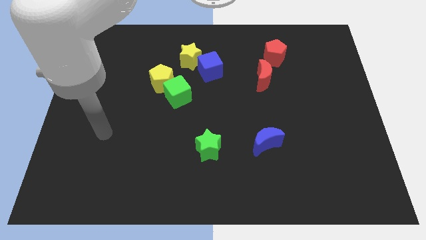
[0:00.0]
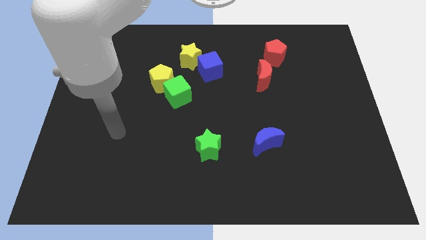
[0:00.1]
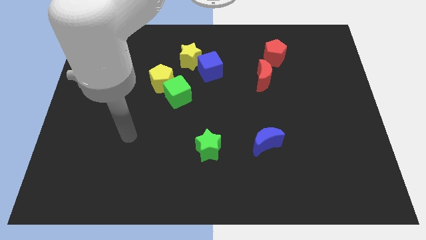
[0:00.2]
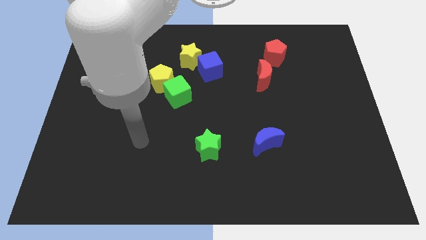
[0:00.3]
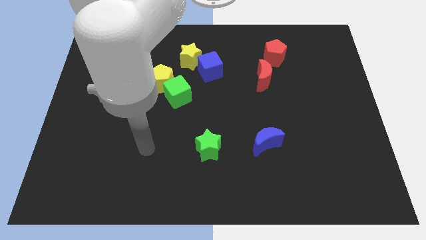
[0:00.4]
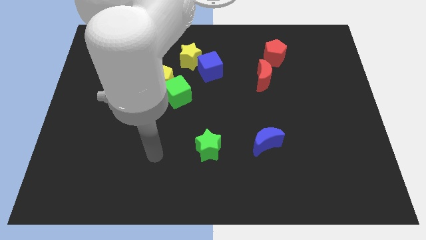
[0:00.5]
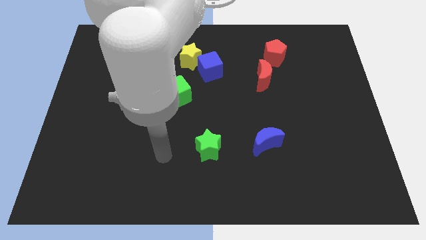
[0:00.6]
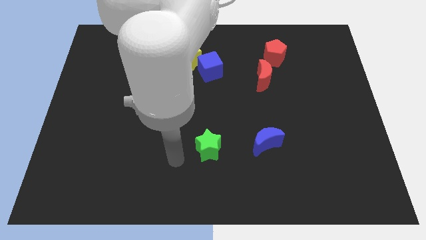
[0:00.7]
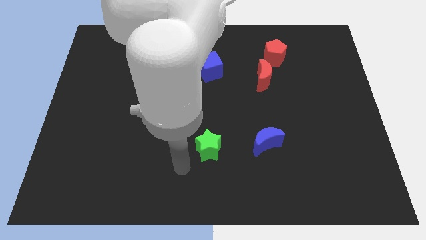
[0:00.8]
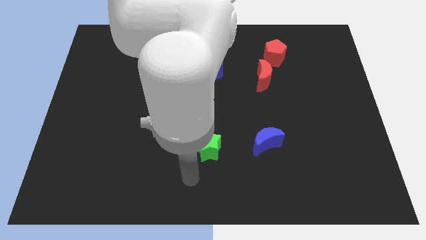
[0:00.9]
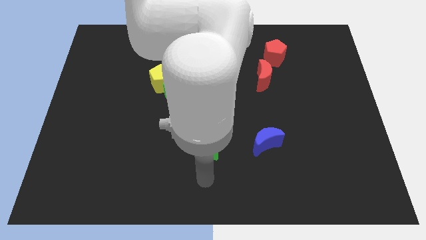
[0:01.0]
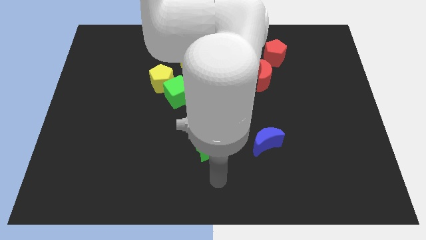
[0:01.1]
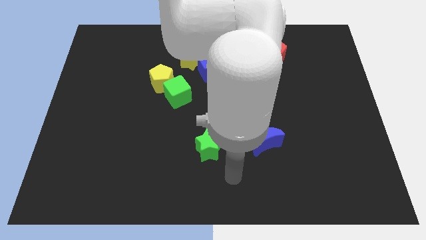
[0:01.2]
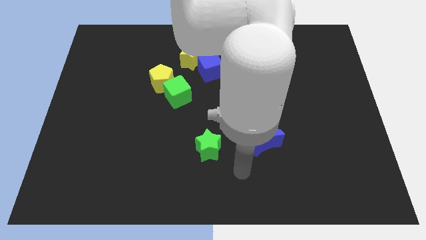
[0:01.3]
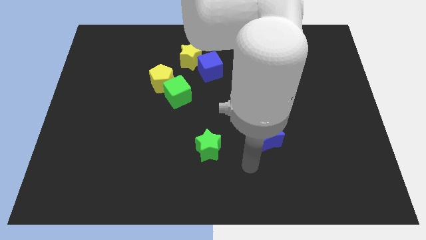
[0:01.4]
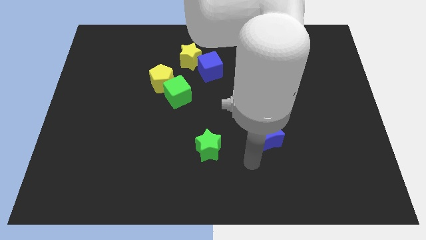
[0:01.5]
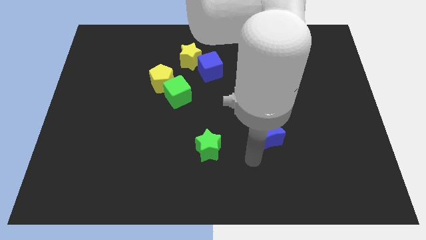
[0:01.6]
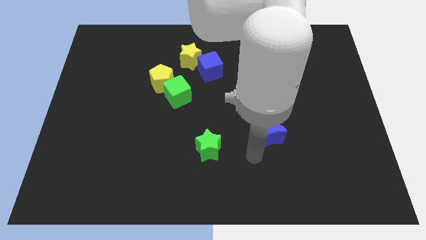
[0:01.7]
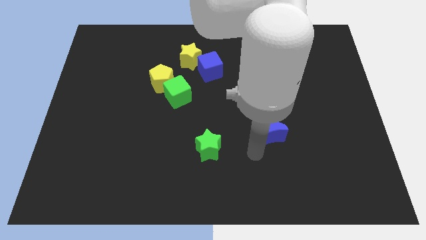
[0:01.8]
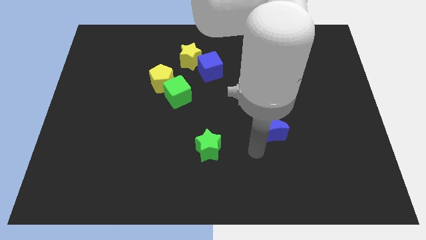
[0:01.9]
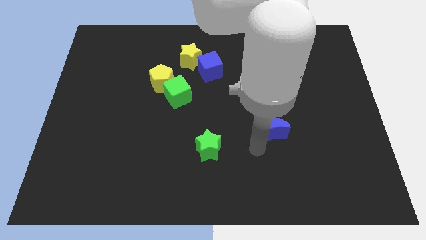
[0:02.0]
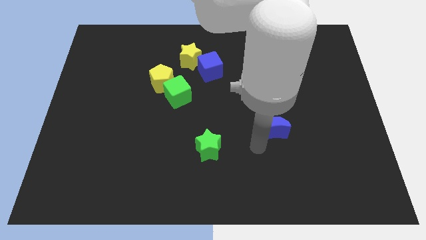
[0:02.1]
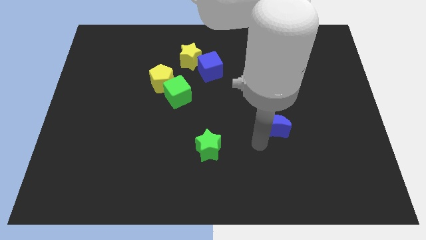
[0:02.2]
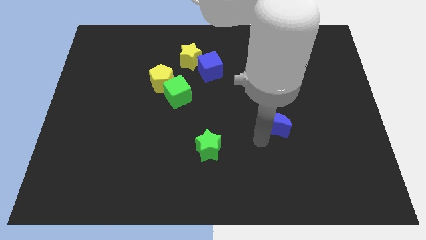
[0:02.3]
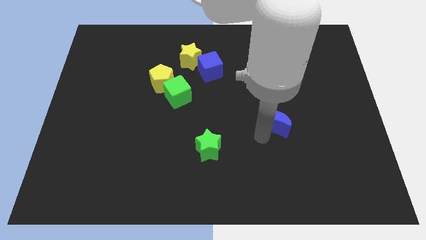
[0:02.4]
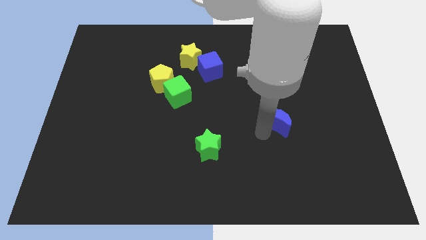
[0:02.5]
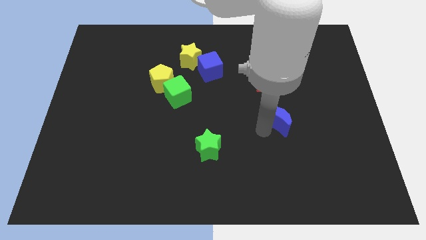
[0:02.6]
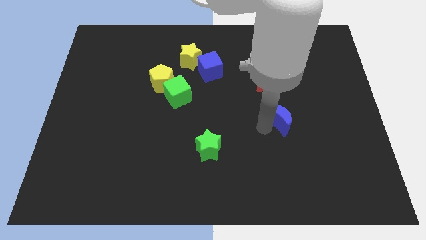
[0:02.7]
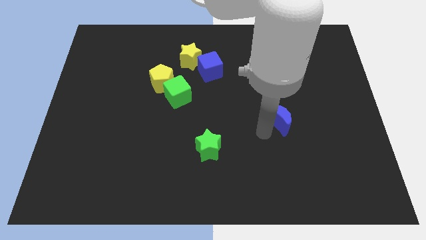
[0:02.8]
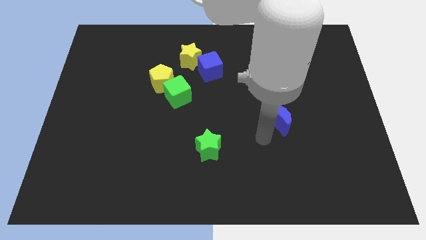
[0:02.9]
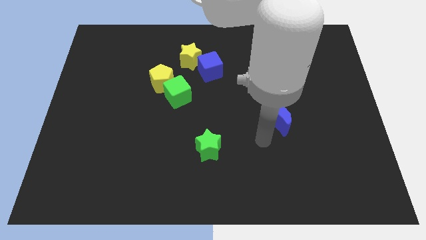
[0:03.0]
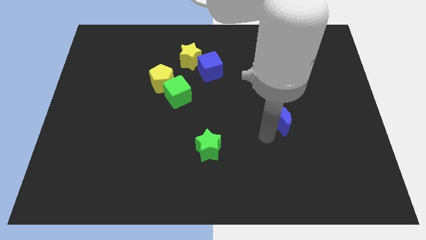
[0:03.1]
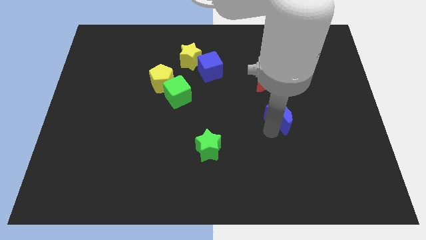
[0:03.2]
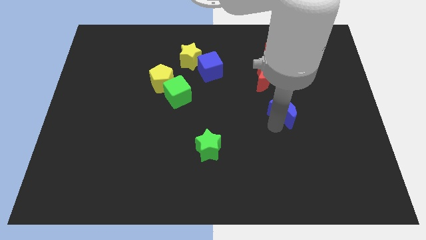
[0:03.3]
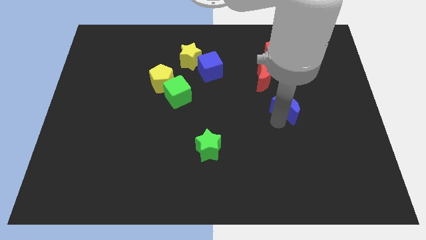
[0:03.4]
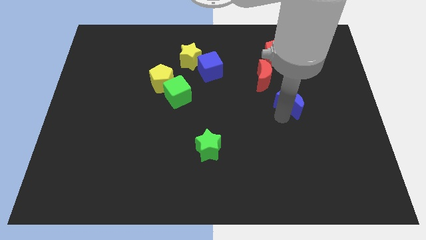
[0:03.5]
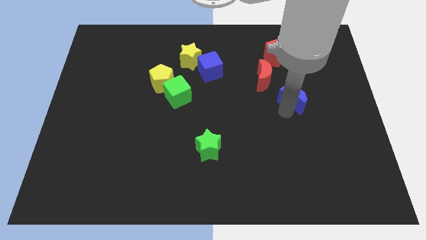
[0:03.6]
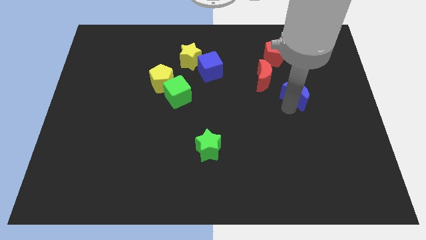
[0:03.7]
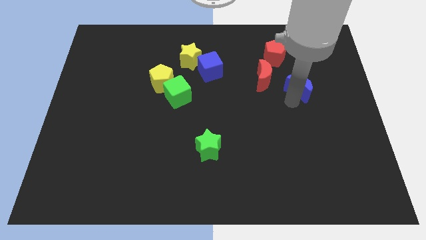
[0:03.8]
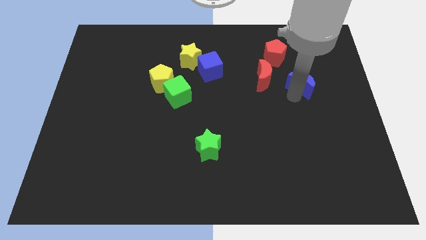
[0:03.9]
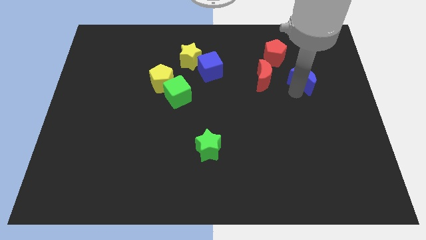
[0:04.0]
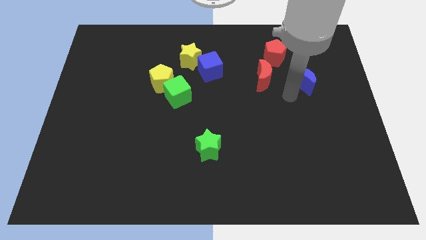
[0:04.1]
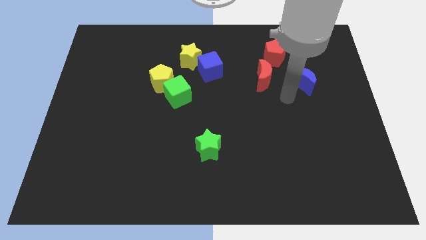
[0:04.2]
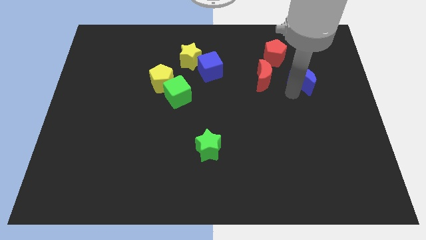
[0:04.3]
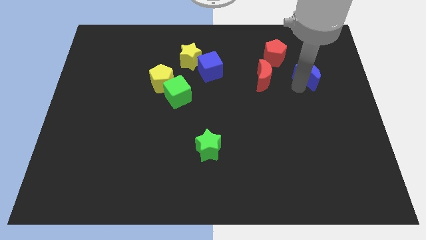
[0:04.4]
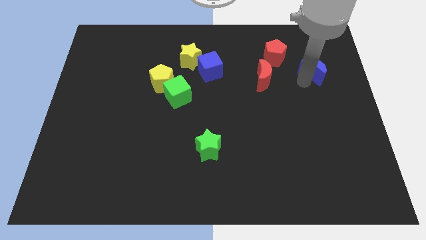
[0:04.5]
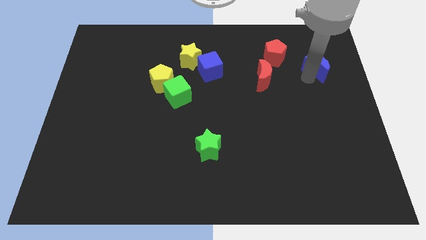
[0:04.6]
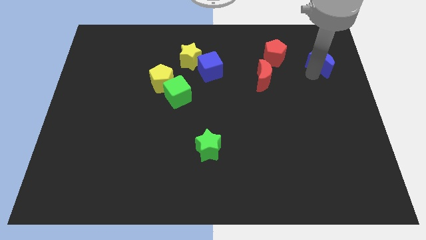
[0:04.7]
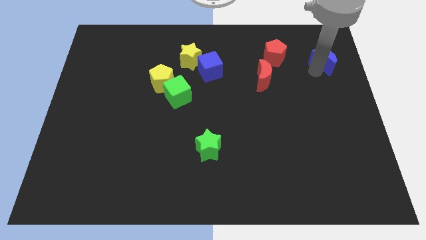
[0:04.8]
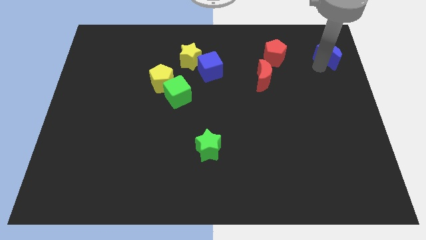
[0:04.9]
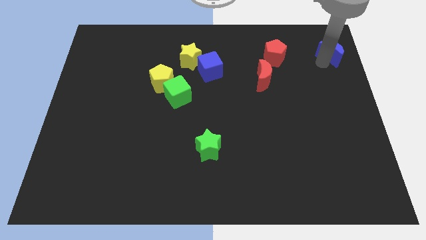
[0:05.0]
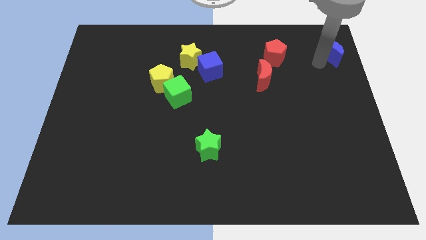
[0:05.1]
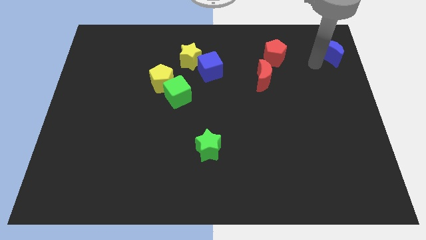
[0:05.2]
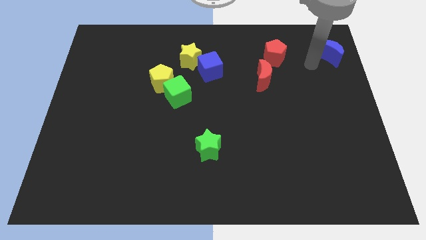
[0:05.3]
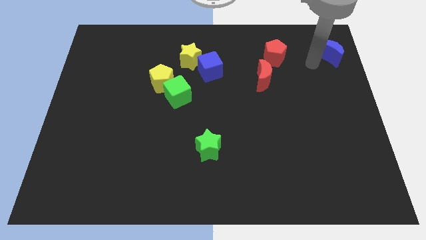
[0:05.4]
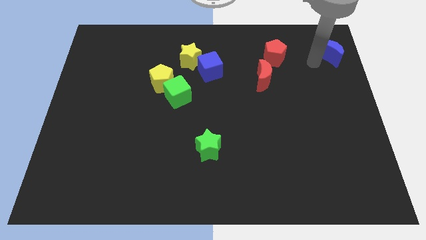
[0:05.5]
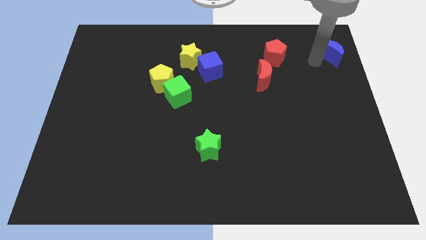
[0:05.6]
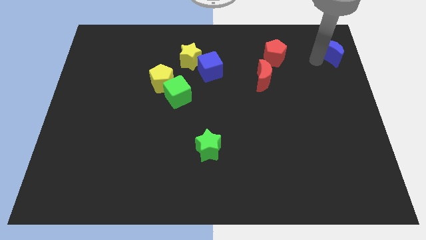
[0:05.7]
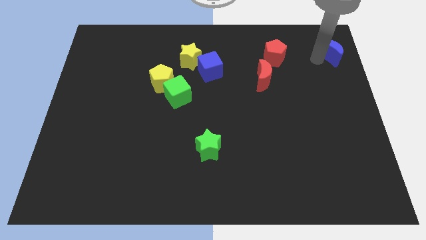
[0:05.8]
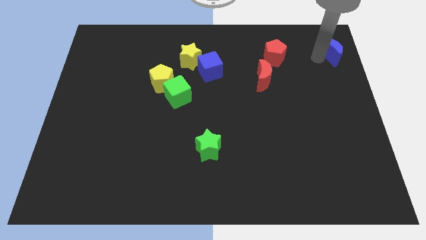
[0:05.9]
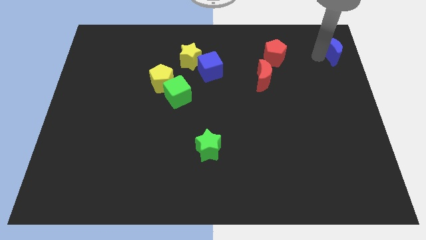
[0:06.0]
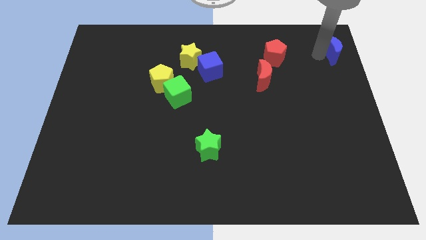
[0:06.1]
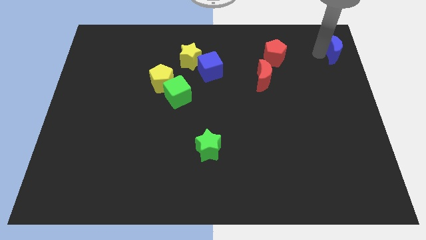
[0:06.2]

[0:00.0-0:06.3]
put the blue moon to the upper right corner

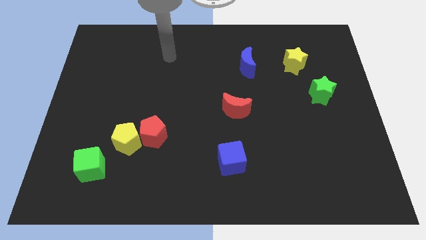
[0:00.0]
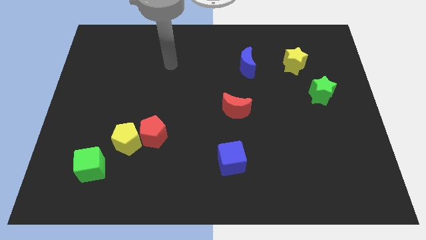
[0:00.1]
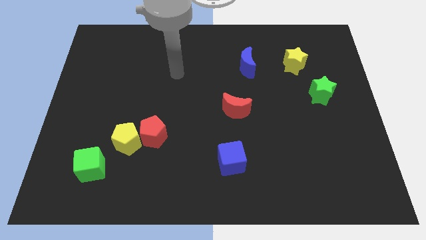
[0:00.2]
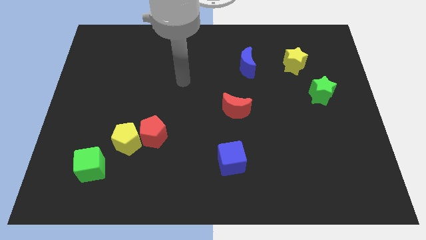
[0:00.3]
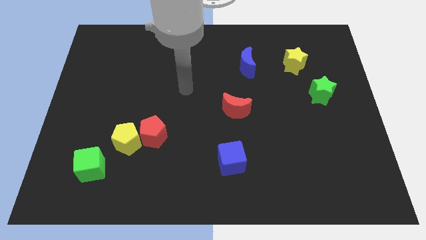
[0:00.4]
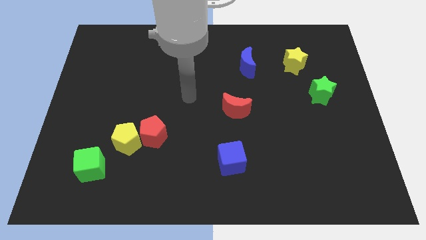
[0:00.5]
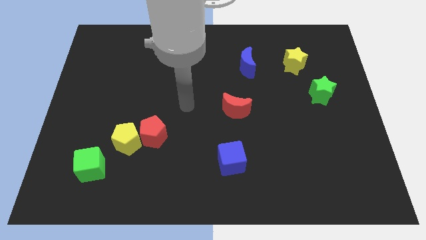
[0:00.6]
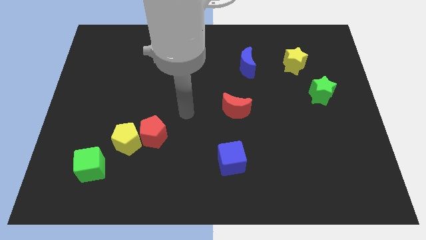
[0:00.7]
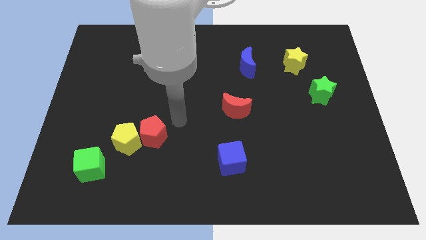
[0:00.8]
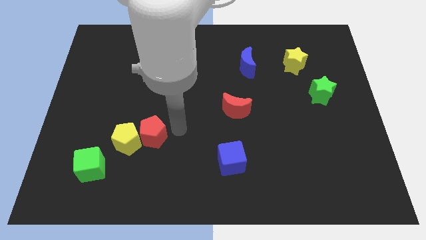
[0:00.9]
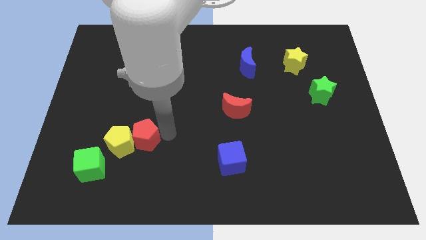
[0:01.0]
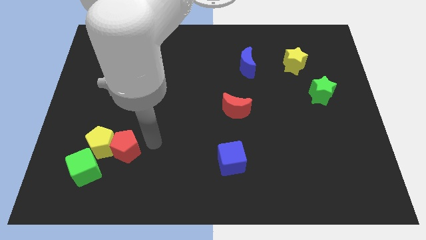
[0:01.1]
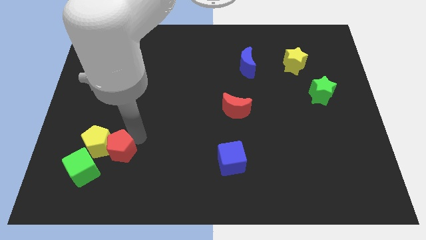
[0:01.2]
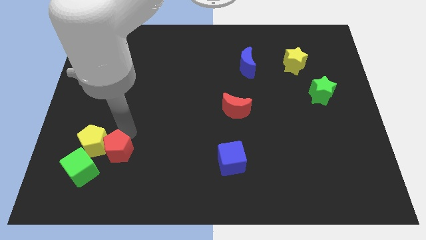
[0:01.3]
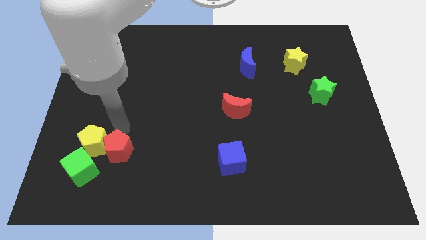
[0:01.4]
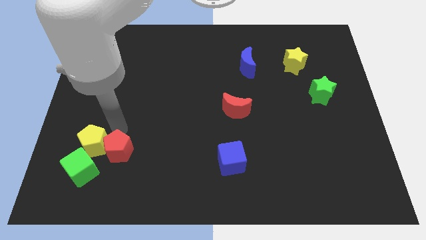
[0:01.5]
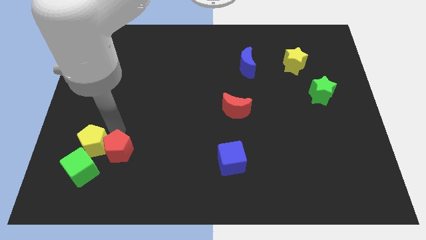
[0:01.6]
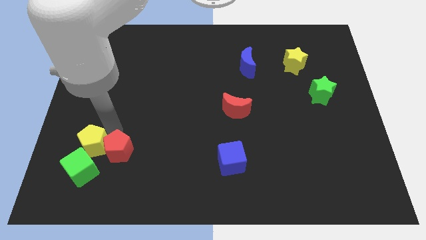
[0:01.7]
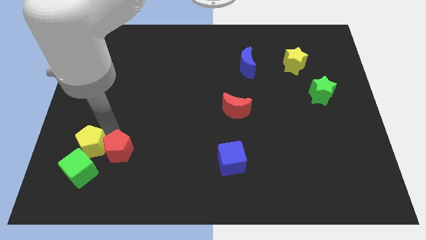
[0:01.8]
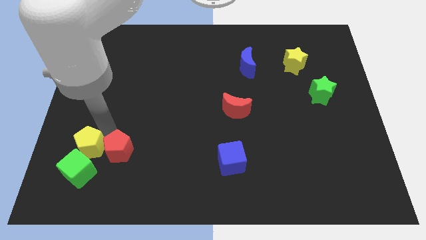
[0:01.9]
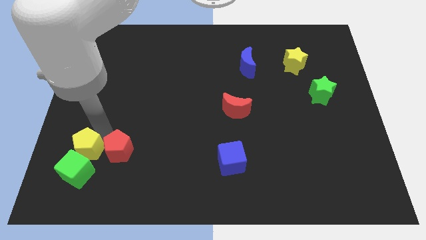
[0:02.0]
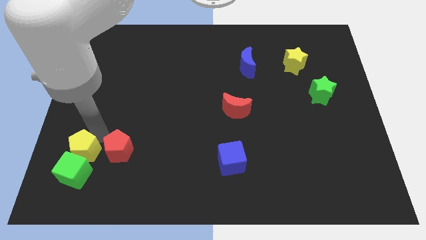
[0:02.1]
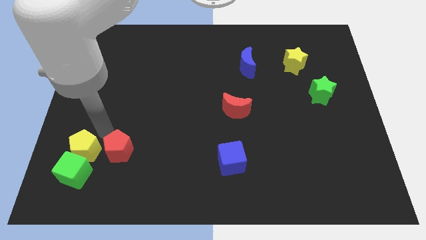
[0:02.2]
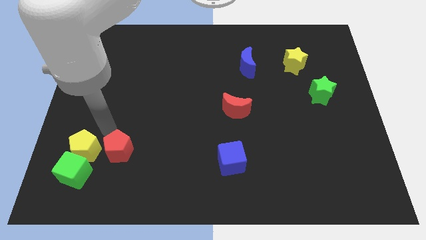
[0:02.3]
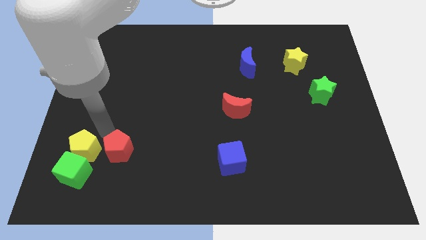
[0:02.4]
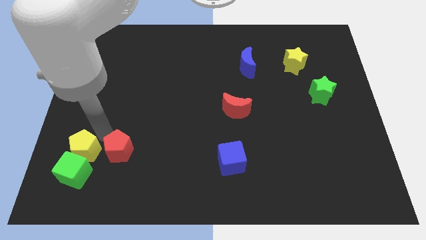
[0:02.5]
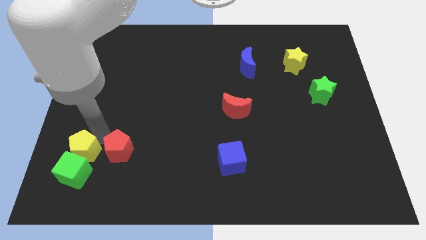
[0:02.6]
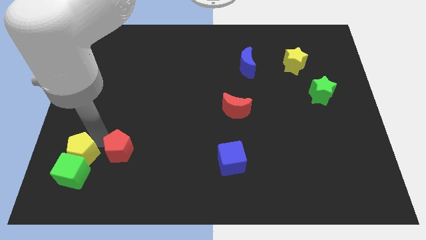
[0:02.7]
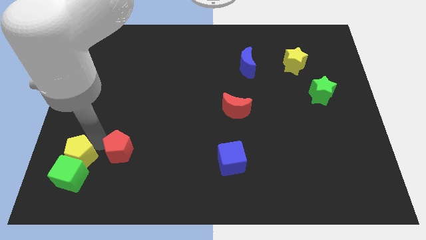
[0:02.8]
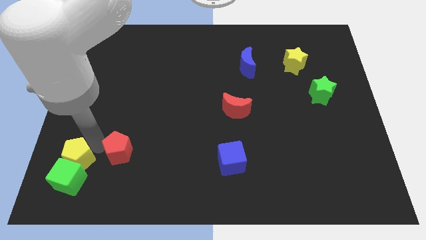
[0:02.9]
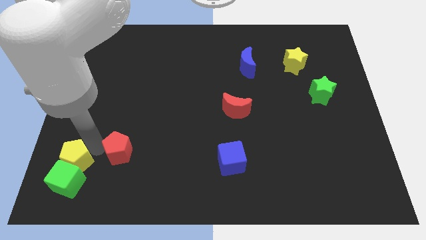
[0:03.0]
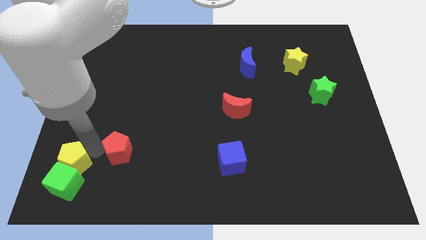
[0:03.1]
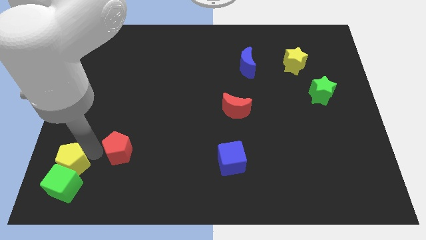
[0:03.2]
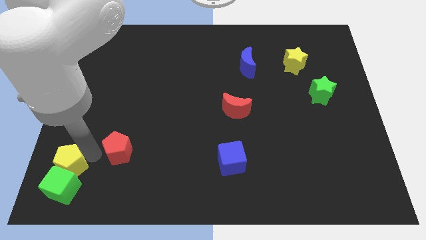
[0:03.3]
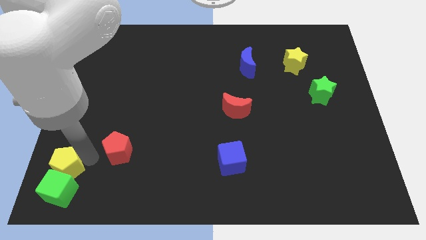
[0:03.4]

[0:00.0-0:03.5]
slide the yellow pentagon to the lower left corner
